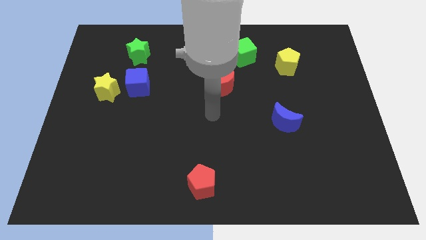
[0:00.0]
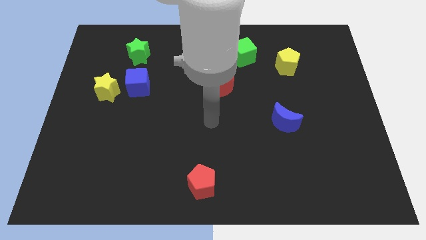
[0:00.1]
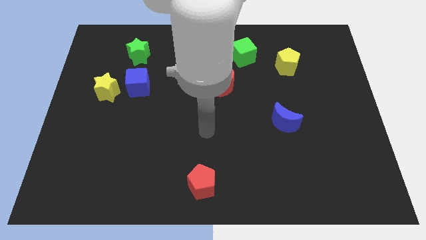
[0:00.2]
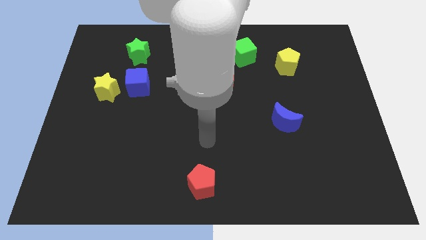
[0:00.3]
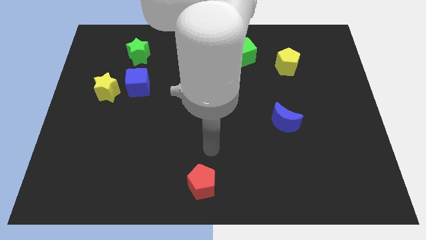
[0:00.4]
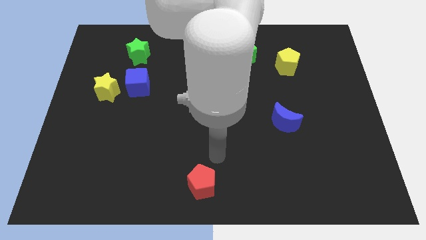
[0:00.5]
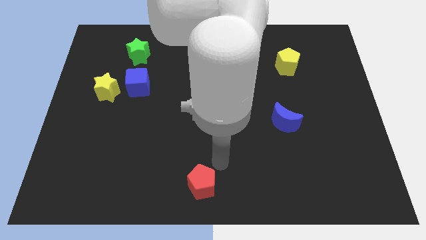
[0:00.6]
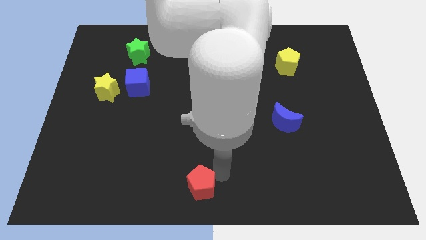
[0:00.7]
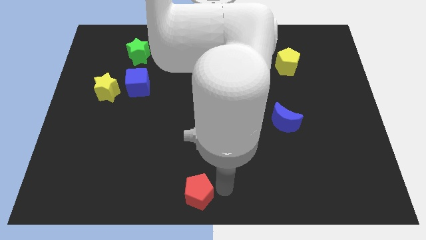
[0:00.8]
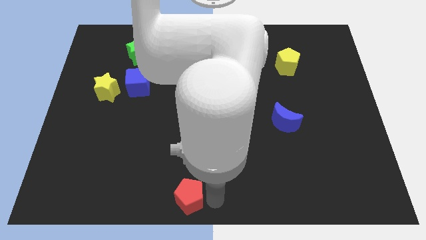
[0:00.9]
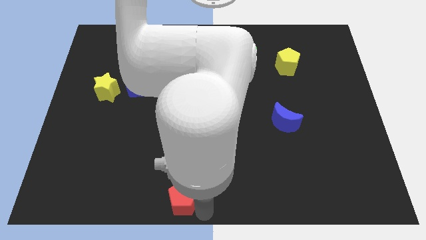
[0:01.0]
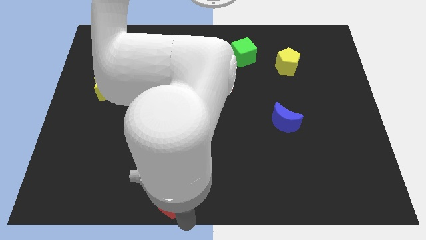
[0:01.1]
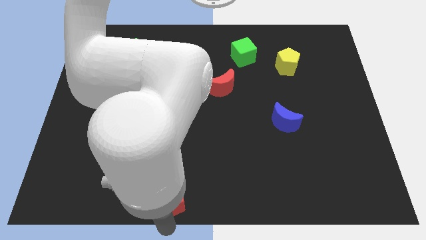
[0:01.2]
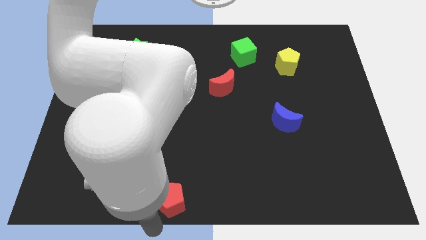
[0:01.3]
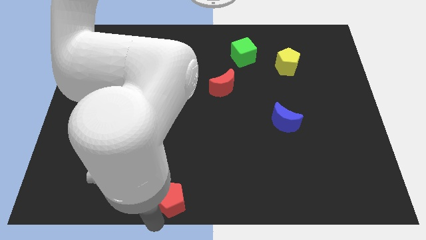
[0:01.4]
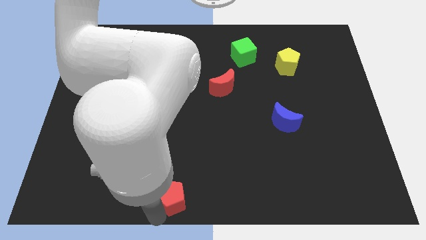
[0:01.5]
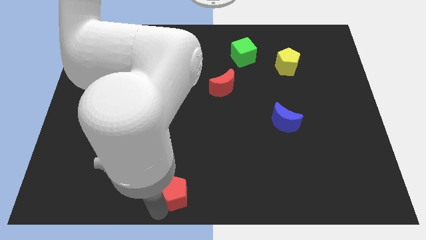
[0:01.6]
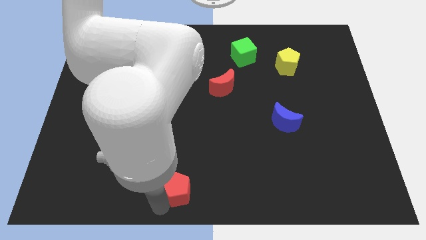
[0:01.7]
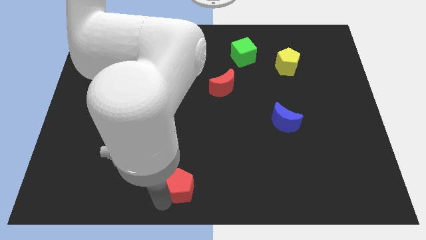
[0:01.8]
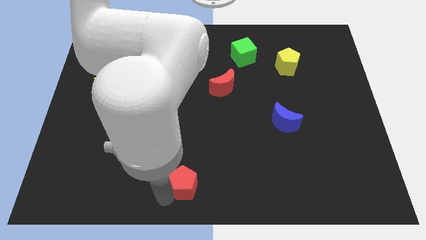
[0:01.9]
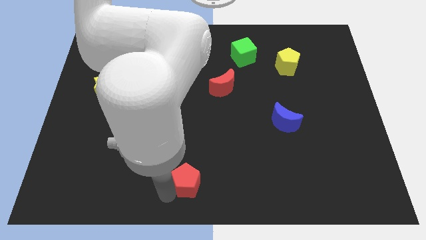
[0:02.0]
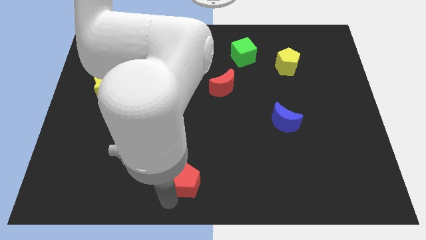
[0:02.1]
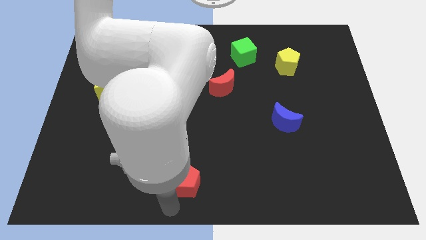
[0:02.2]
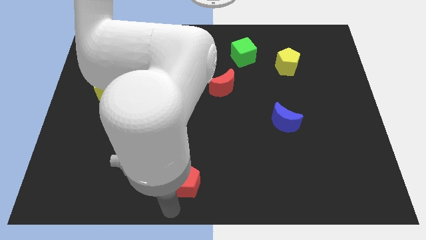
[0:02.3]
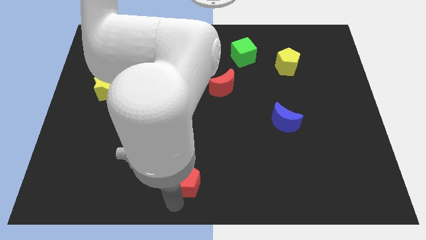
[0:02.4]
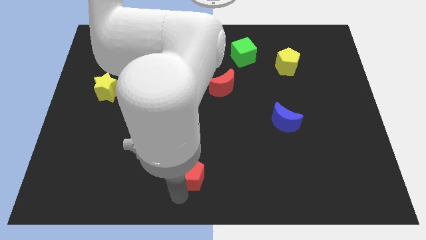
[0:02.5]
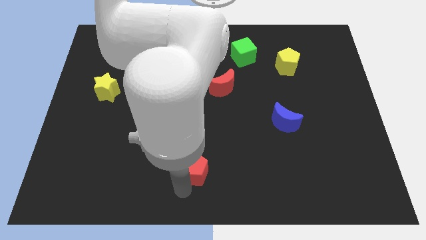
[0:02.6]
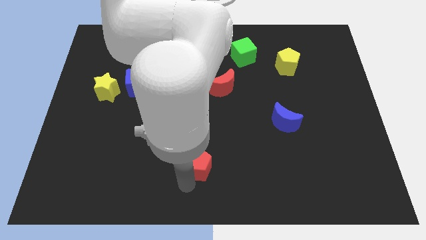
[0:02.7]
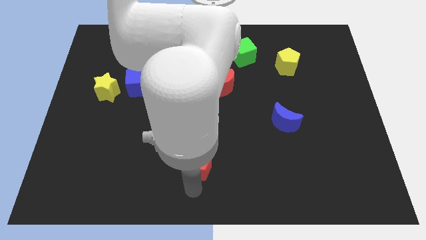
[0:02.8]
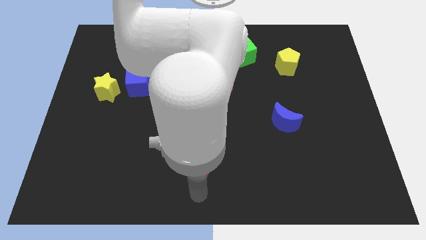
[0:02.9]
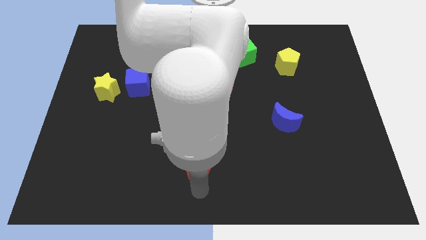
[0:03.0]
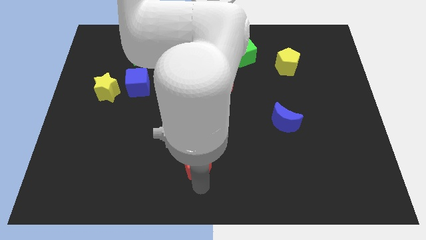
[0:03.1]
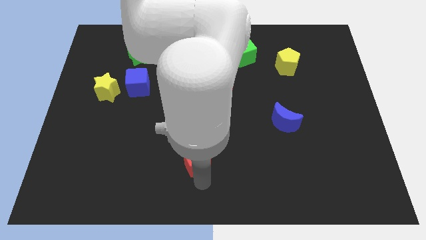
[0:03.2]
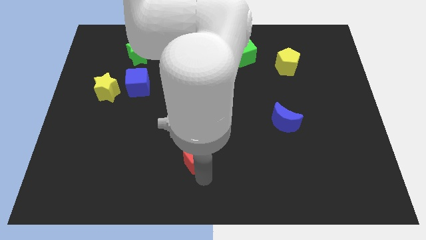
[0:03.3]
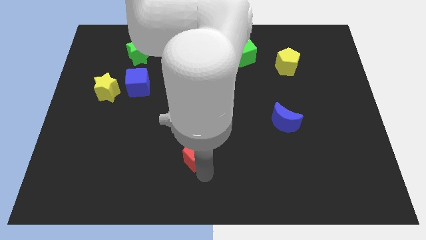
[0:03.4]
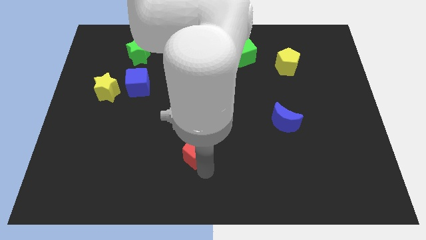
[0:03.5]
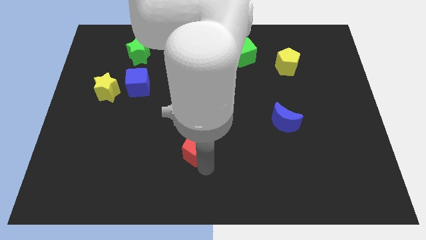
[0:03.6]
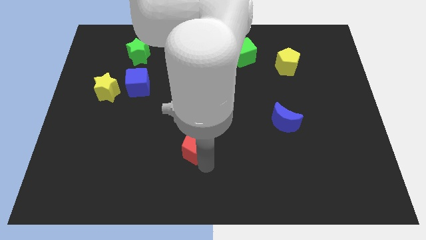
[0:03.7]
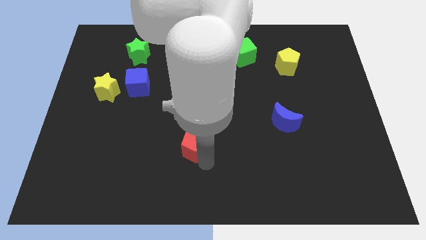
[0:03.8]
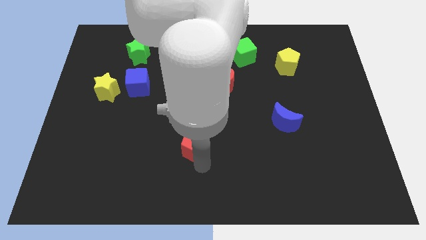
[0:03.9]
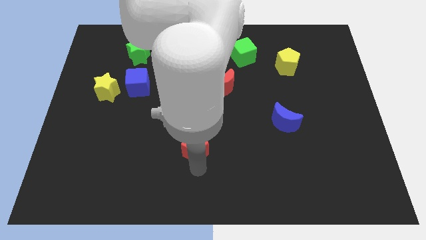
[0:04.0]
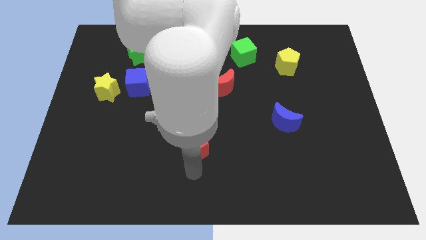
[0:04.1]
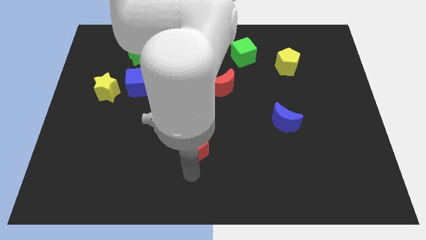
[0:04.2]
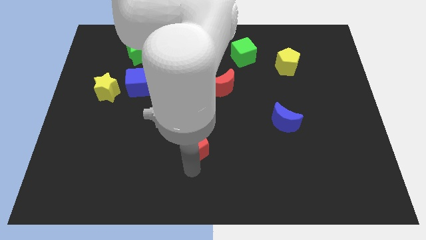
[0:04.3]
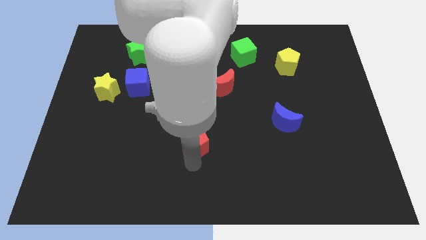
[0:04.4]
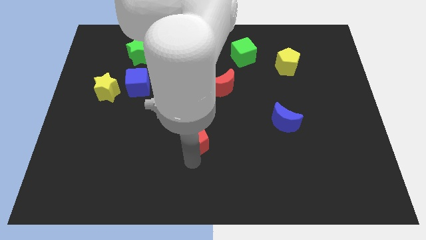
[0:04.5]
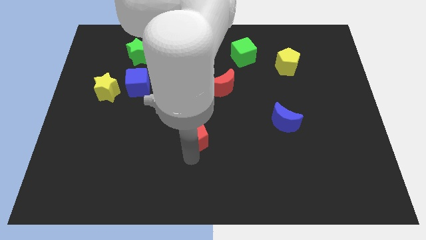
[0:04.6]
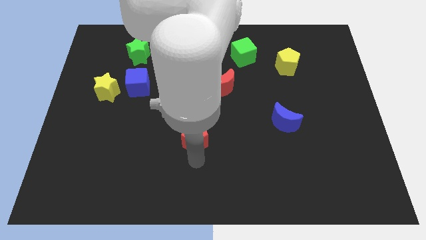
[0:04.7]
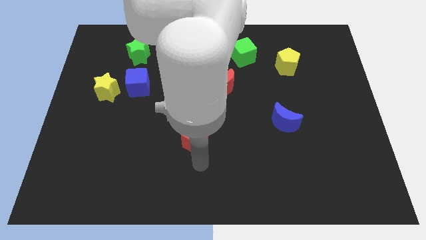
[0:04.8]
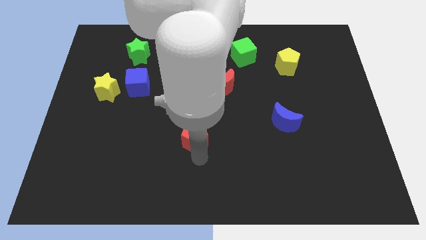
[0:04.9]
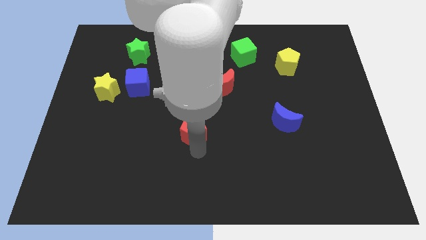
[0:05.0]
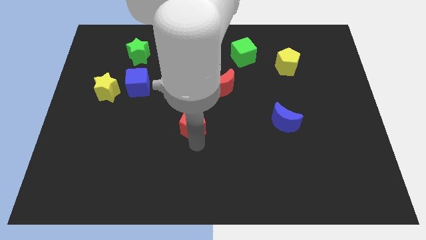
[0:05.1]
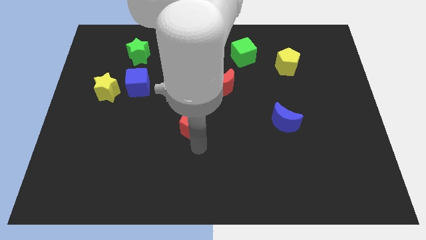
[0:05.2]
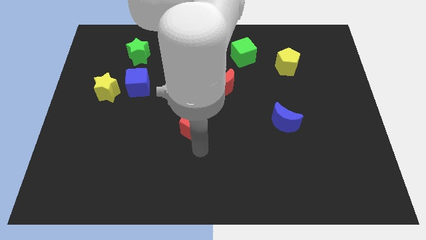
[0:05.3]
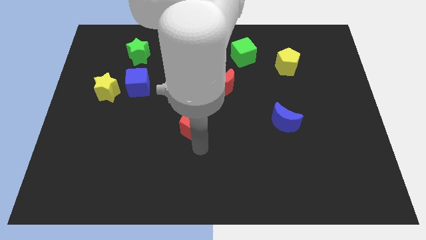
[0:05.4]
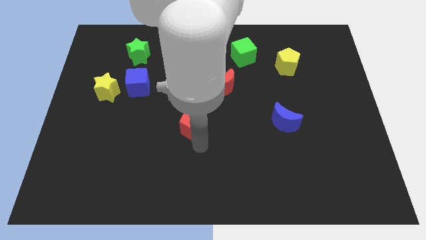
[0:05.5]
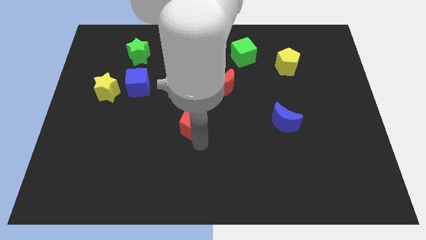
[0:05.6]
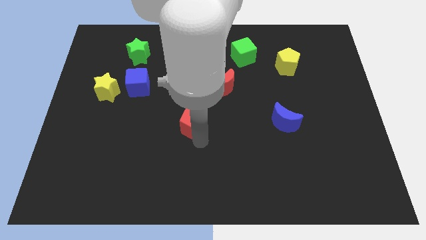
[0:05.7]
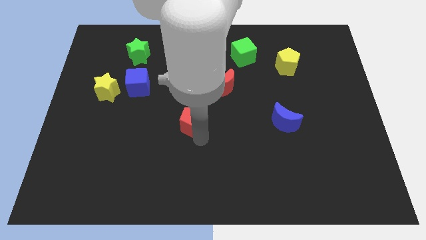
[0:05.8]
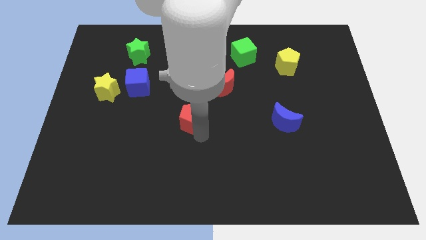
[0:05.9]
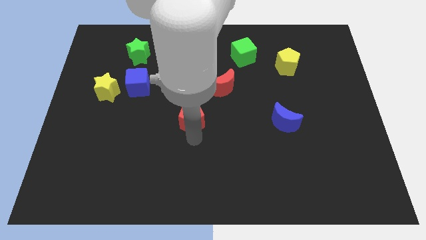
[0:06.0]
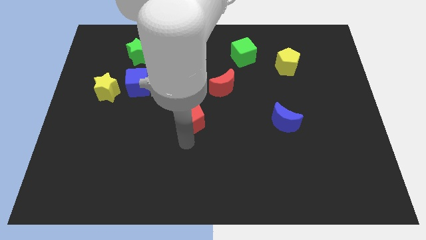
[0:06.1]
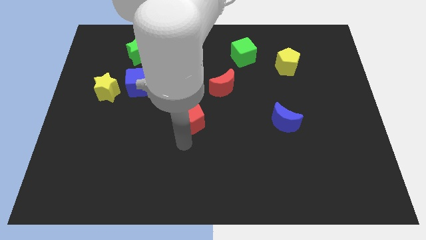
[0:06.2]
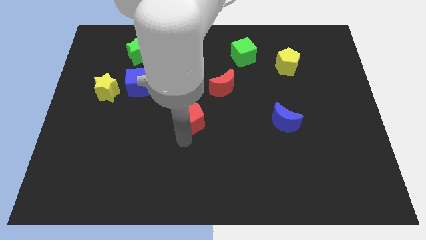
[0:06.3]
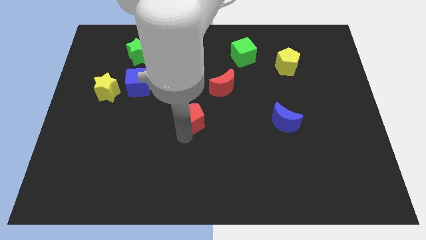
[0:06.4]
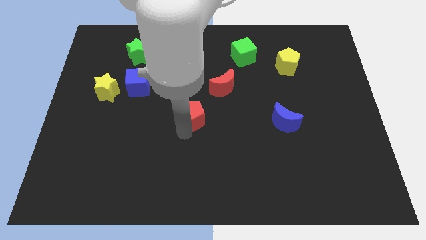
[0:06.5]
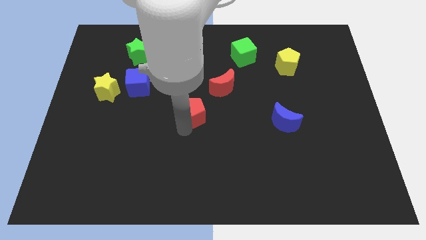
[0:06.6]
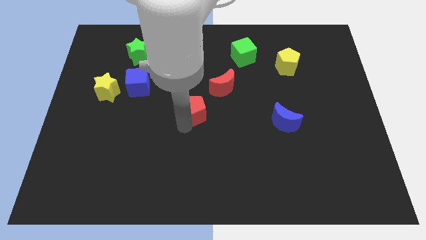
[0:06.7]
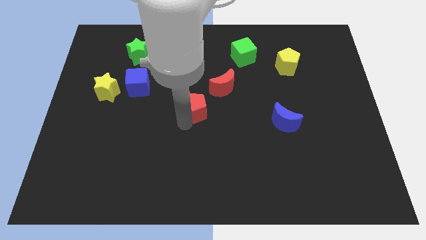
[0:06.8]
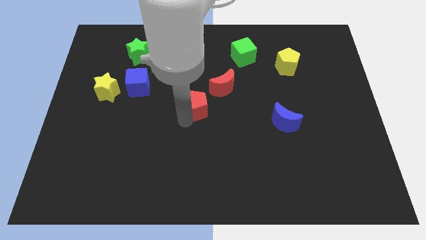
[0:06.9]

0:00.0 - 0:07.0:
slide the red pentagon up

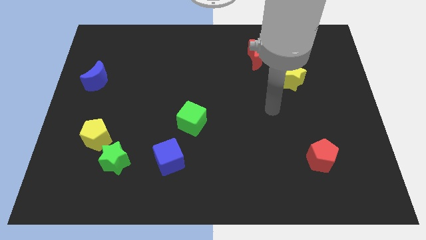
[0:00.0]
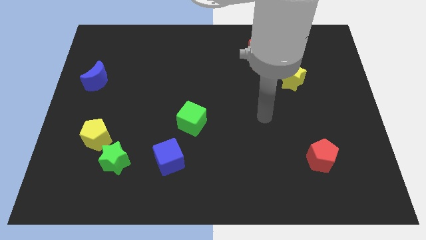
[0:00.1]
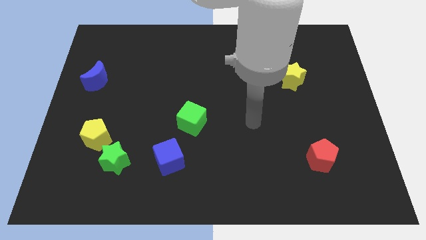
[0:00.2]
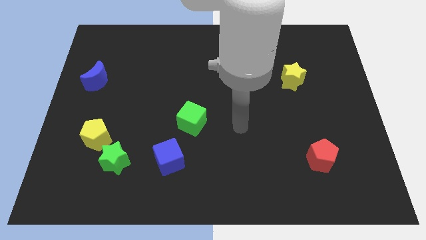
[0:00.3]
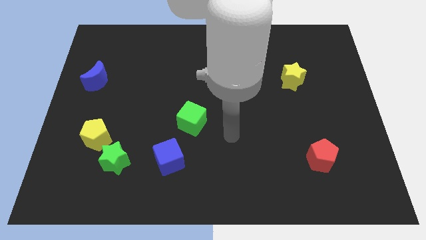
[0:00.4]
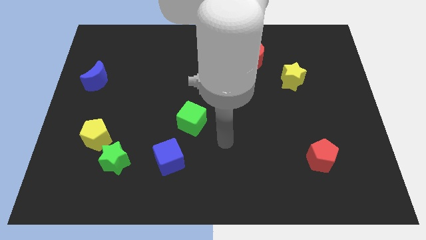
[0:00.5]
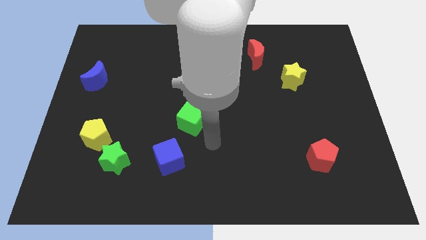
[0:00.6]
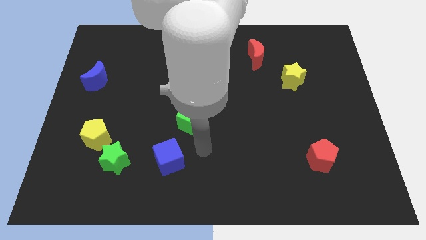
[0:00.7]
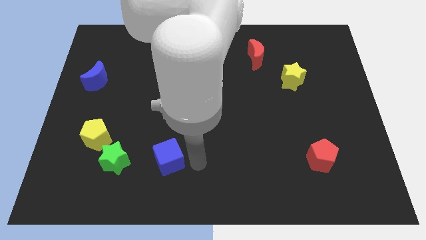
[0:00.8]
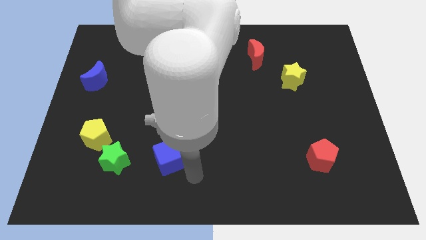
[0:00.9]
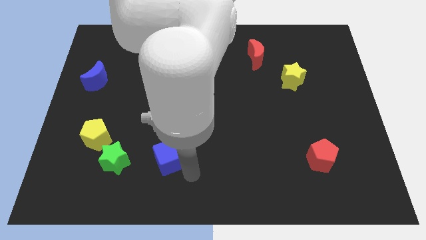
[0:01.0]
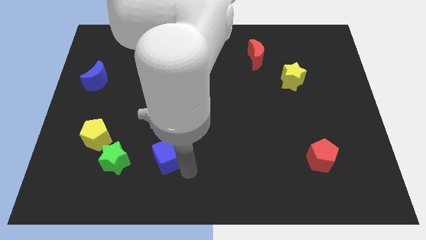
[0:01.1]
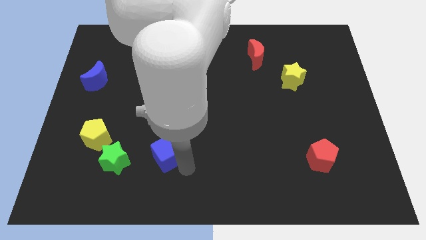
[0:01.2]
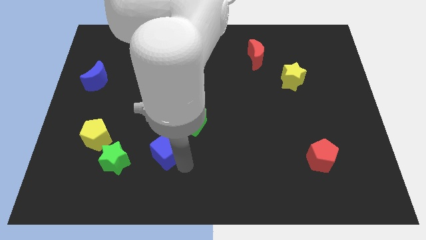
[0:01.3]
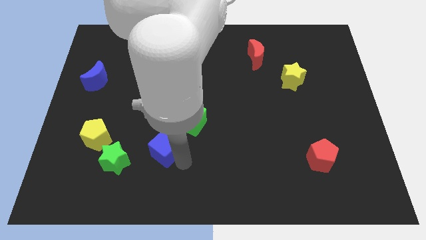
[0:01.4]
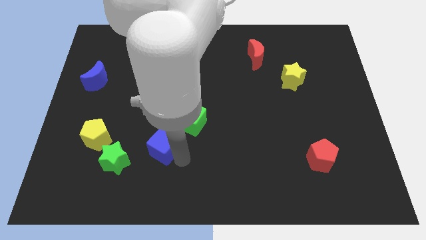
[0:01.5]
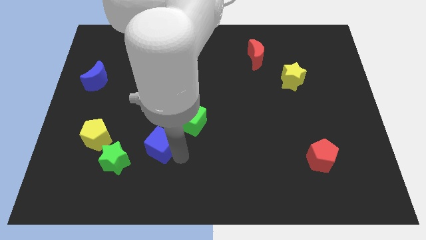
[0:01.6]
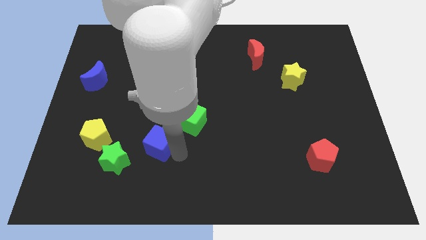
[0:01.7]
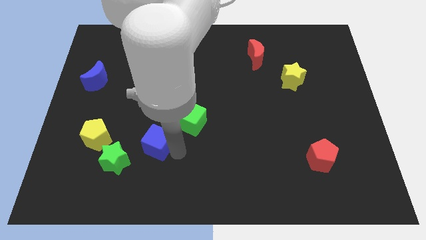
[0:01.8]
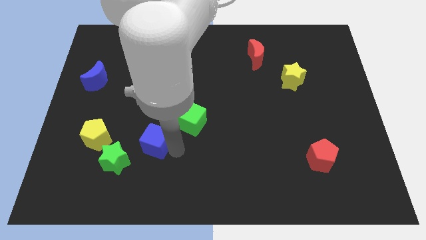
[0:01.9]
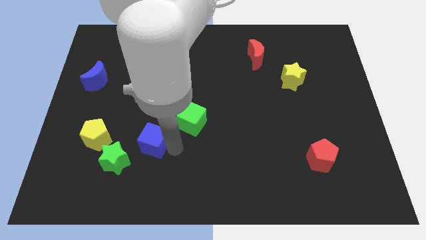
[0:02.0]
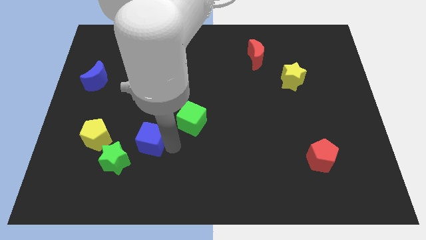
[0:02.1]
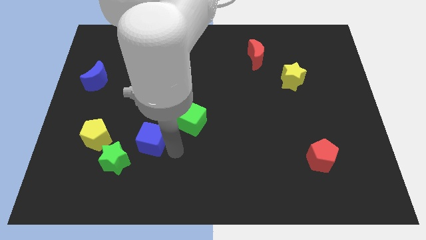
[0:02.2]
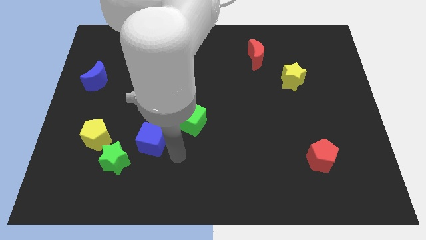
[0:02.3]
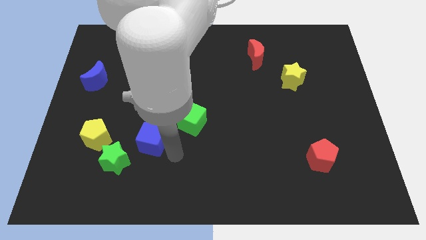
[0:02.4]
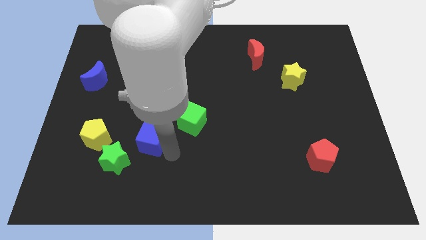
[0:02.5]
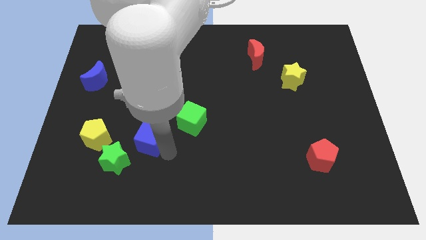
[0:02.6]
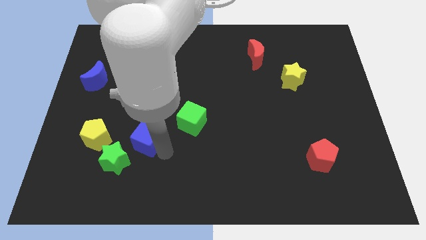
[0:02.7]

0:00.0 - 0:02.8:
slightly push the blue cube upwards and then left
